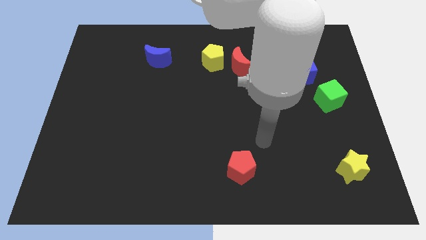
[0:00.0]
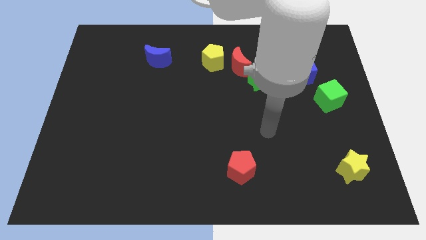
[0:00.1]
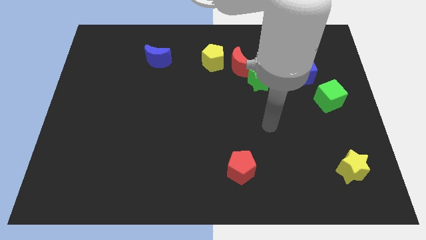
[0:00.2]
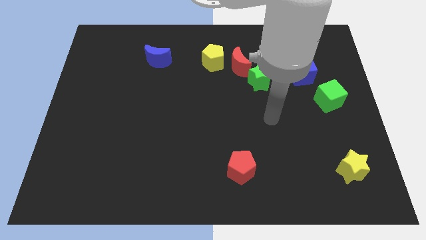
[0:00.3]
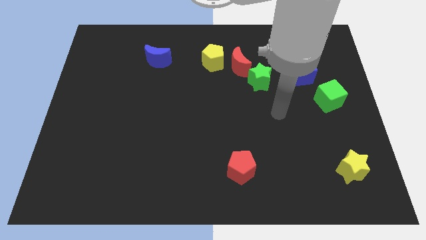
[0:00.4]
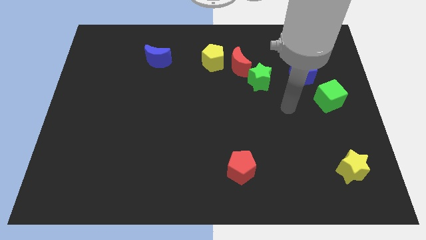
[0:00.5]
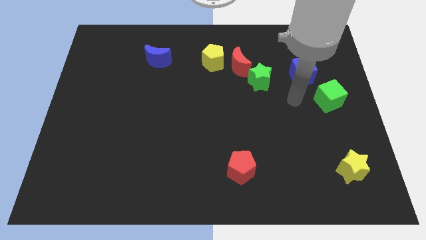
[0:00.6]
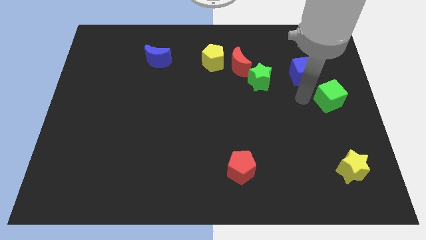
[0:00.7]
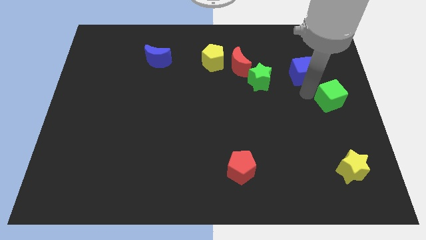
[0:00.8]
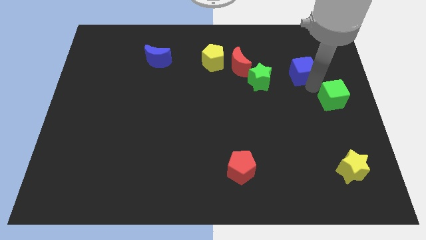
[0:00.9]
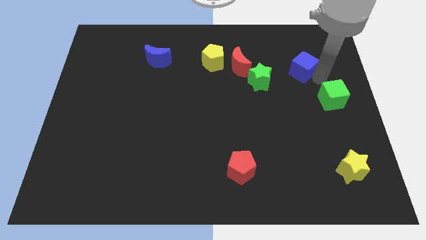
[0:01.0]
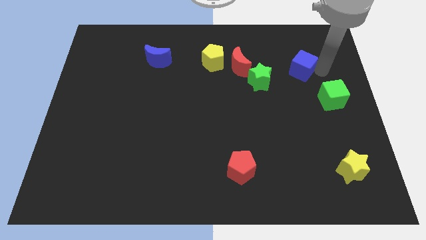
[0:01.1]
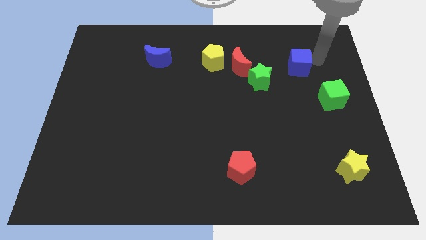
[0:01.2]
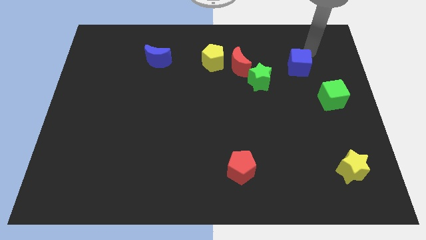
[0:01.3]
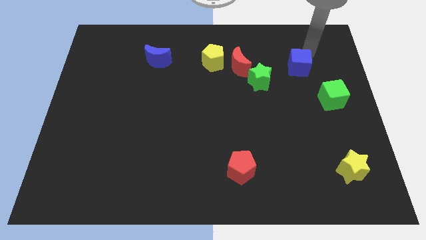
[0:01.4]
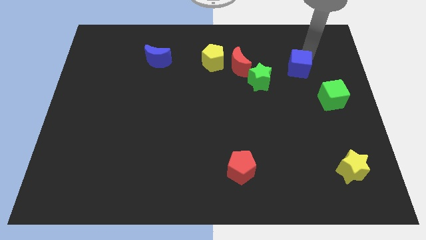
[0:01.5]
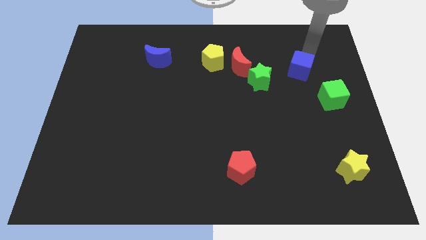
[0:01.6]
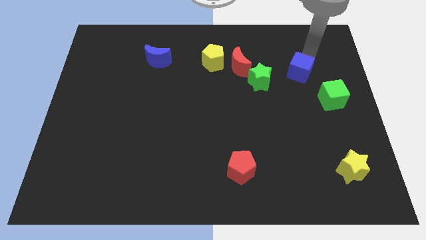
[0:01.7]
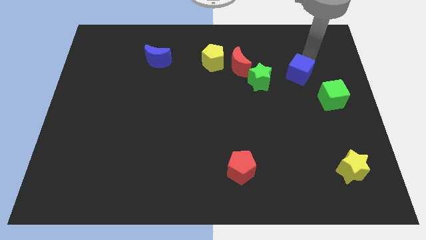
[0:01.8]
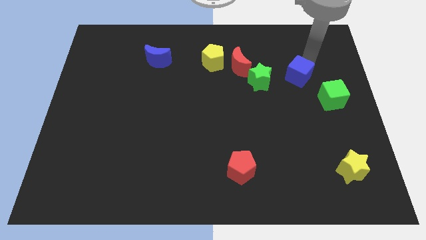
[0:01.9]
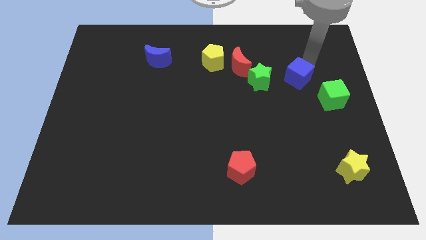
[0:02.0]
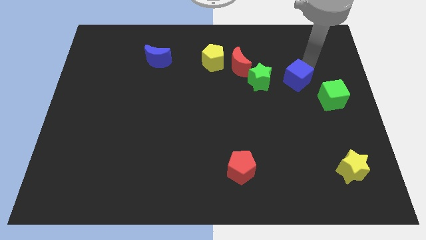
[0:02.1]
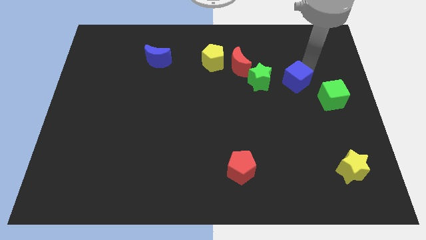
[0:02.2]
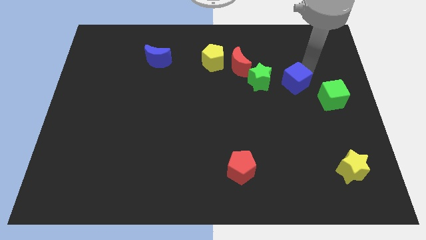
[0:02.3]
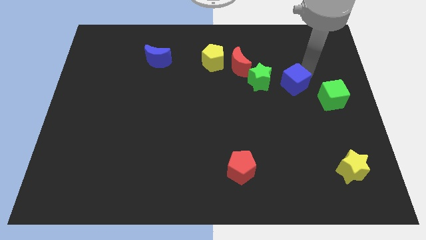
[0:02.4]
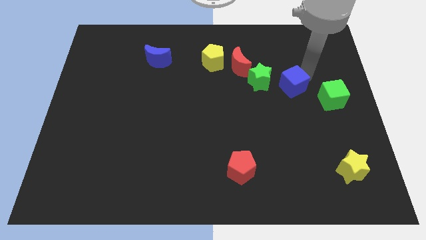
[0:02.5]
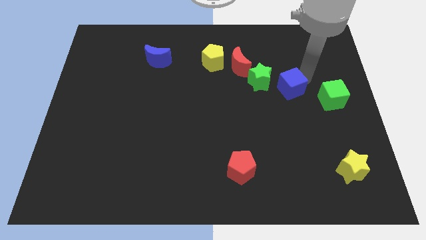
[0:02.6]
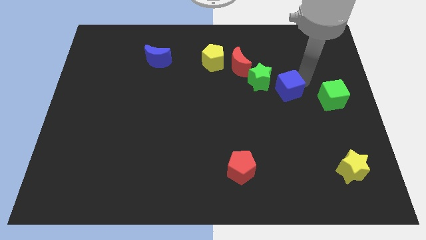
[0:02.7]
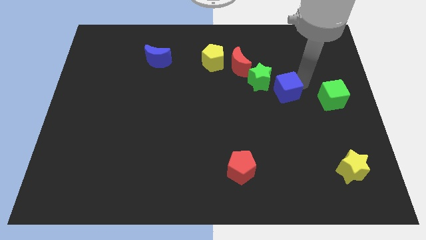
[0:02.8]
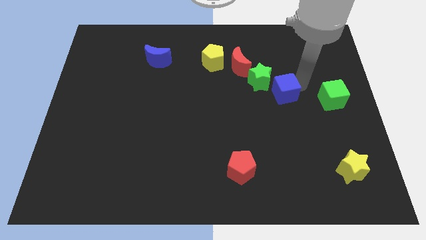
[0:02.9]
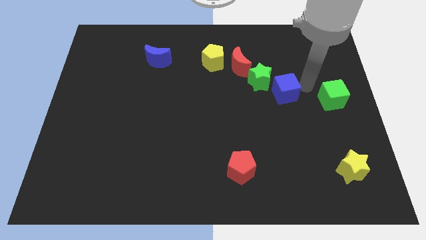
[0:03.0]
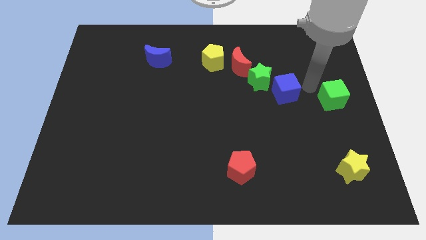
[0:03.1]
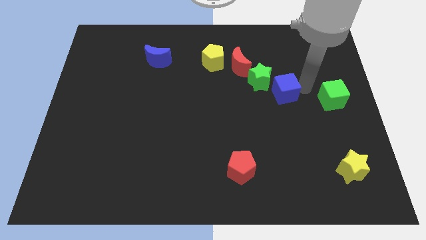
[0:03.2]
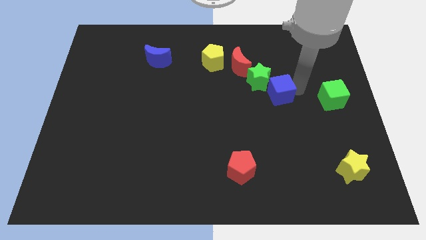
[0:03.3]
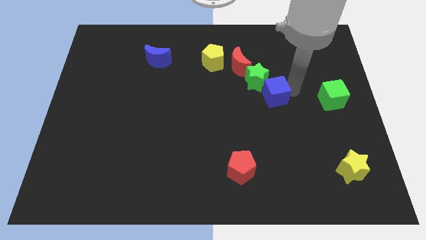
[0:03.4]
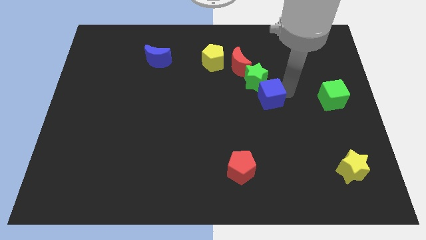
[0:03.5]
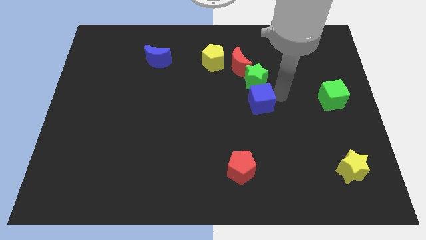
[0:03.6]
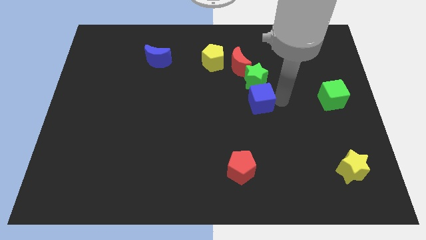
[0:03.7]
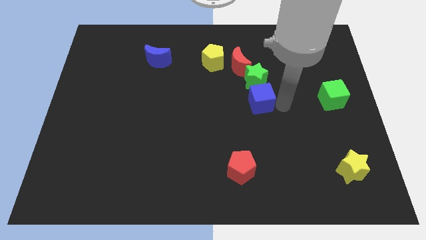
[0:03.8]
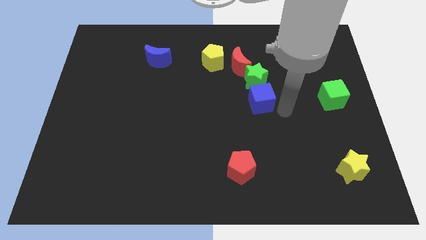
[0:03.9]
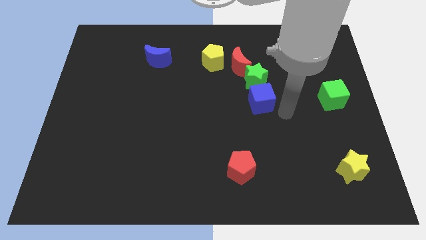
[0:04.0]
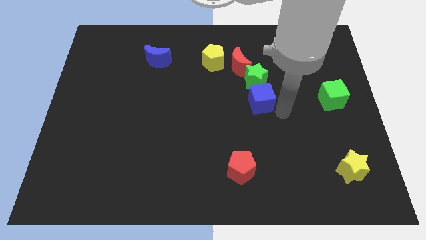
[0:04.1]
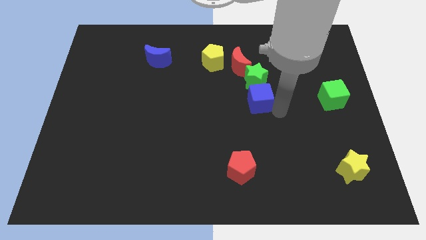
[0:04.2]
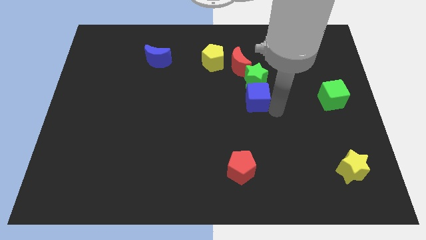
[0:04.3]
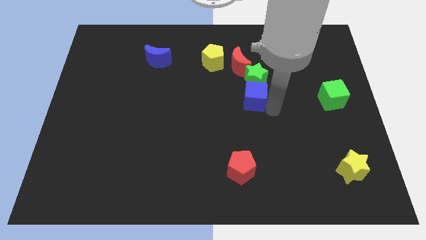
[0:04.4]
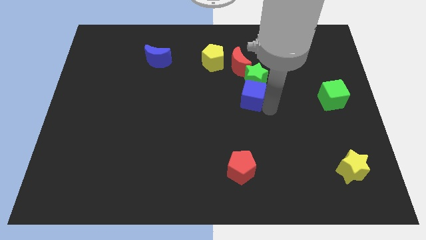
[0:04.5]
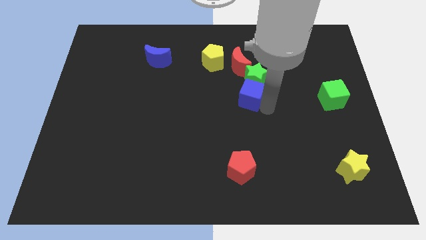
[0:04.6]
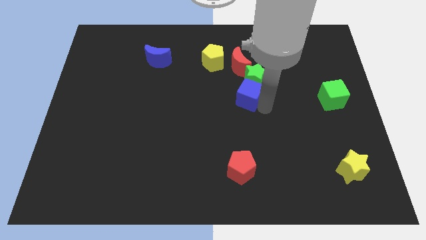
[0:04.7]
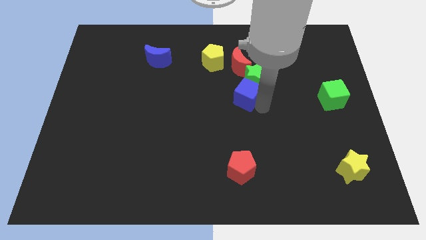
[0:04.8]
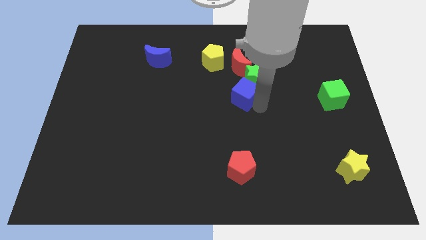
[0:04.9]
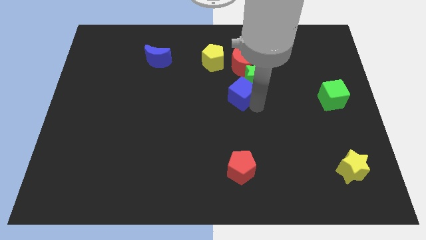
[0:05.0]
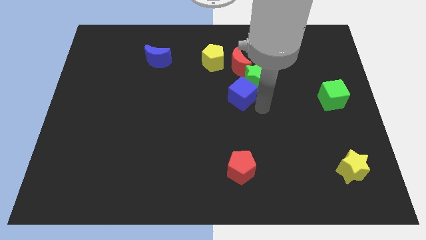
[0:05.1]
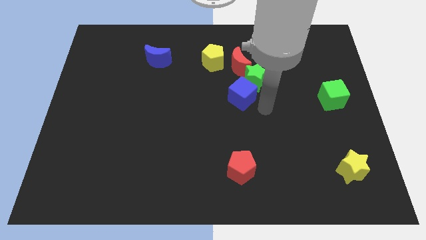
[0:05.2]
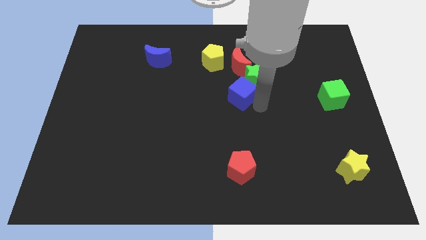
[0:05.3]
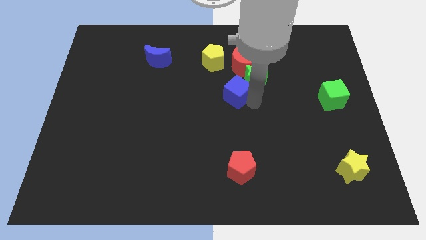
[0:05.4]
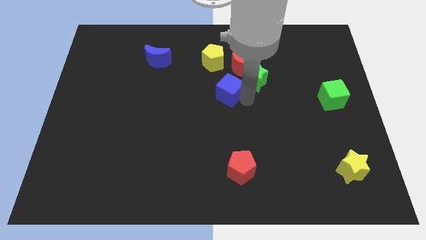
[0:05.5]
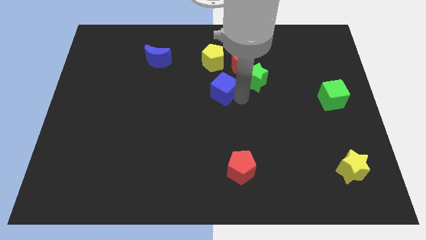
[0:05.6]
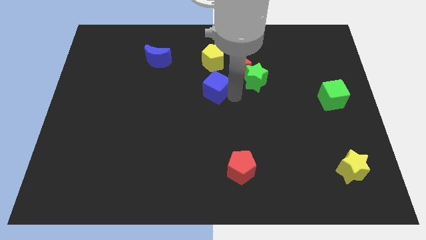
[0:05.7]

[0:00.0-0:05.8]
push the blue cube to the left

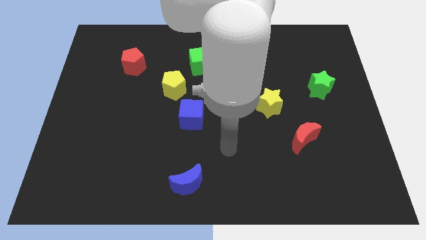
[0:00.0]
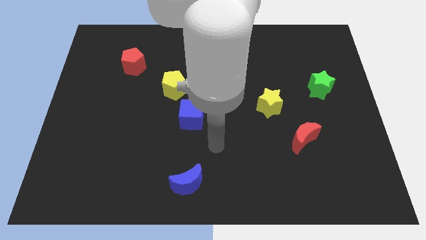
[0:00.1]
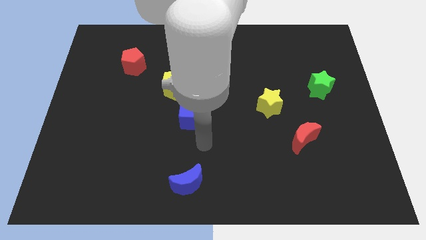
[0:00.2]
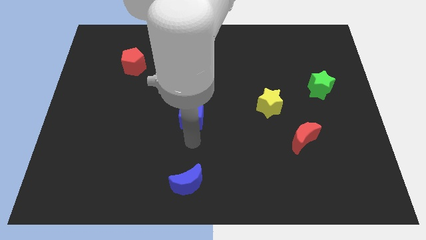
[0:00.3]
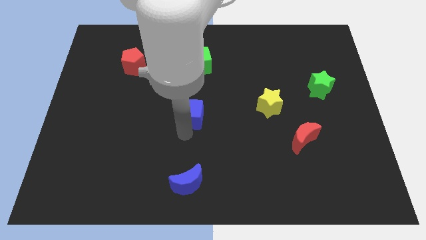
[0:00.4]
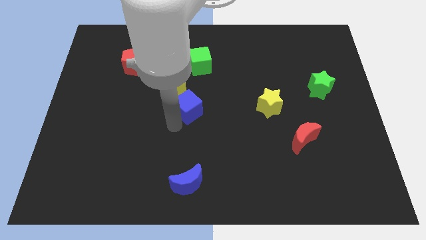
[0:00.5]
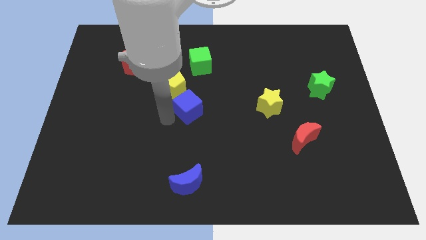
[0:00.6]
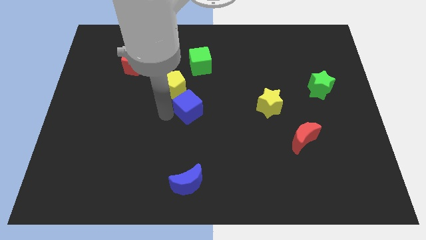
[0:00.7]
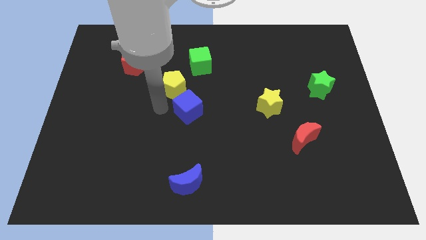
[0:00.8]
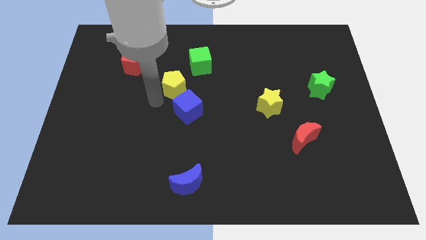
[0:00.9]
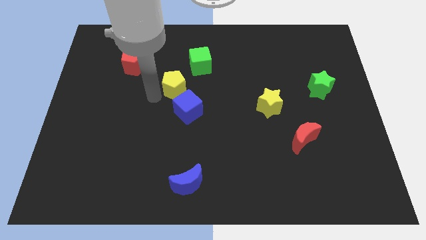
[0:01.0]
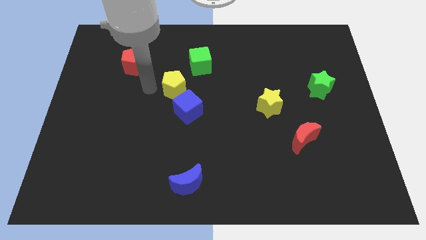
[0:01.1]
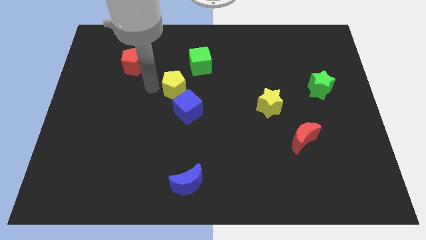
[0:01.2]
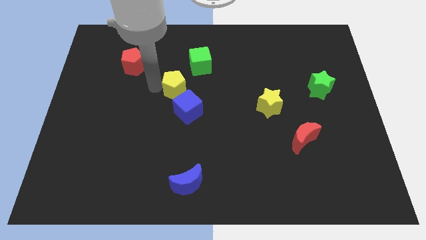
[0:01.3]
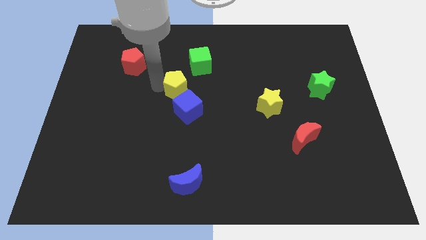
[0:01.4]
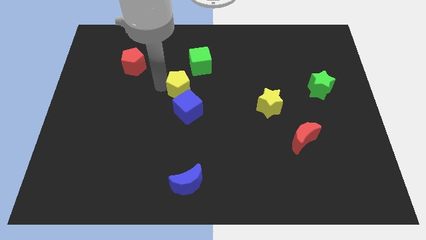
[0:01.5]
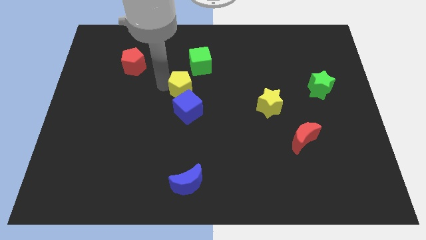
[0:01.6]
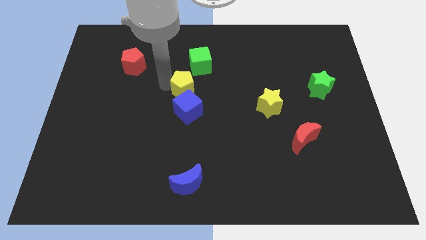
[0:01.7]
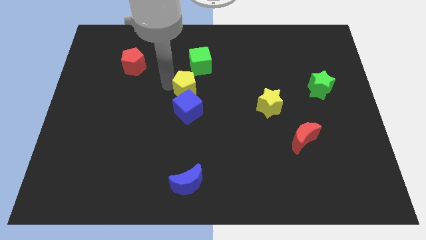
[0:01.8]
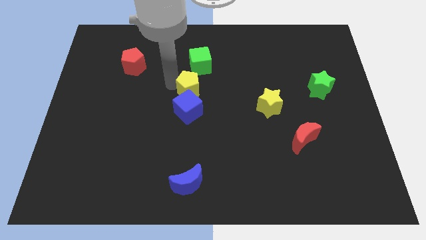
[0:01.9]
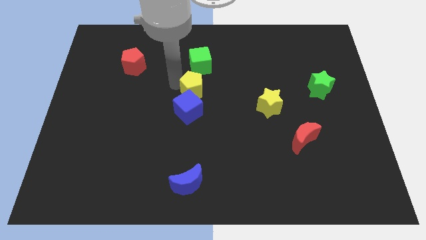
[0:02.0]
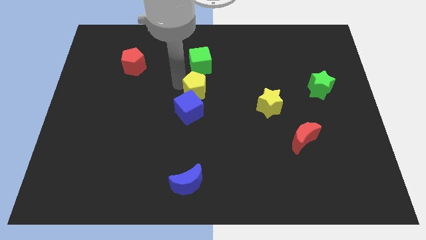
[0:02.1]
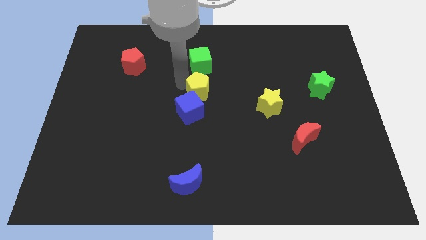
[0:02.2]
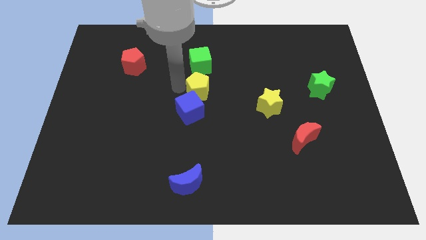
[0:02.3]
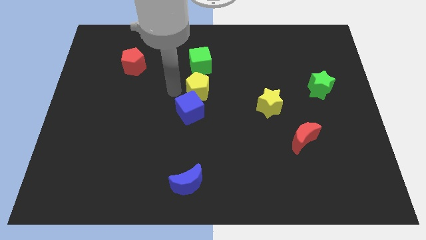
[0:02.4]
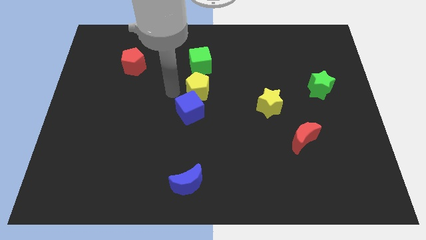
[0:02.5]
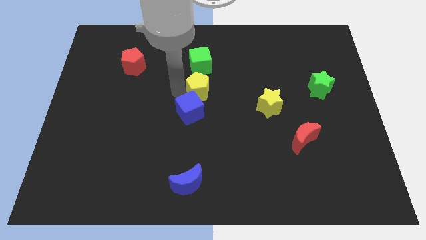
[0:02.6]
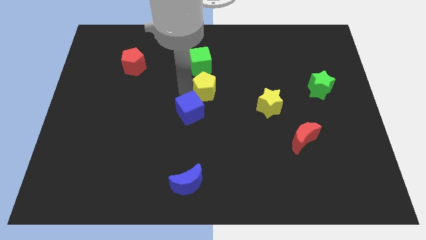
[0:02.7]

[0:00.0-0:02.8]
push the yellow pentagon a bit right
